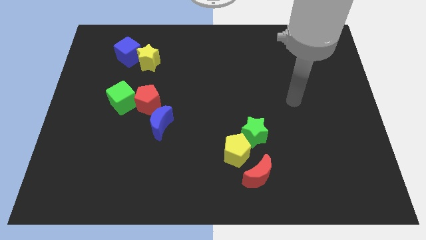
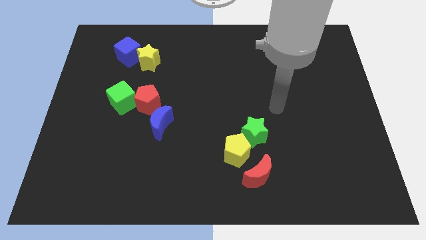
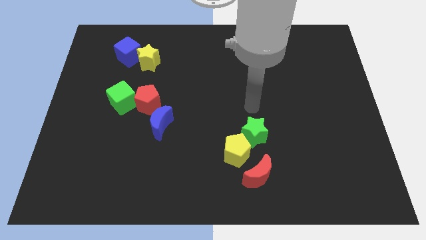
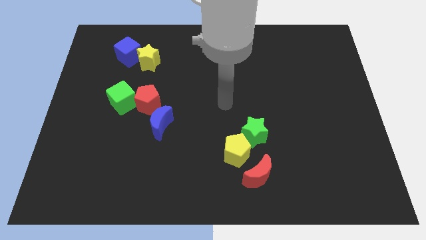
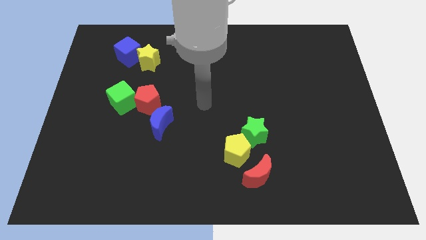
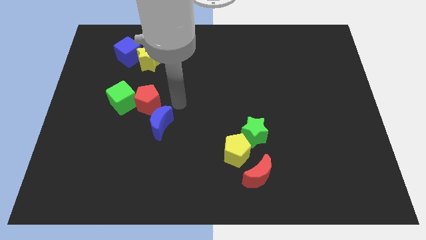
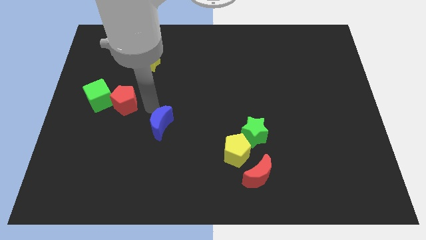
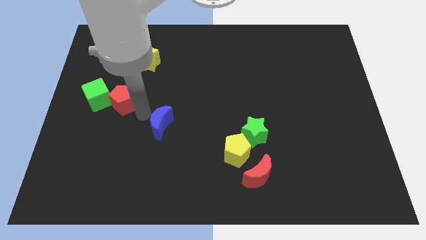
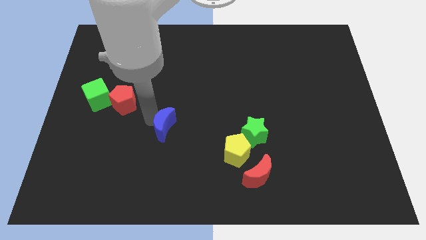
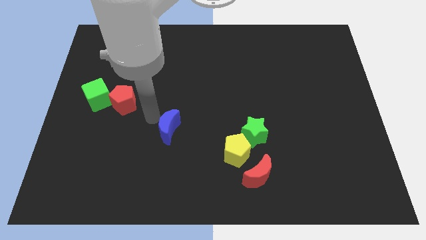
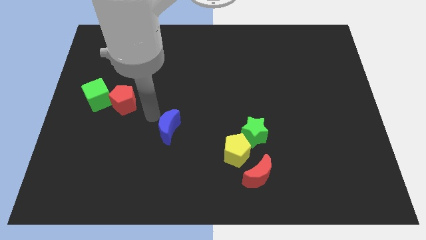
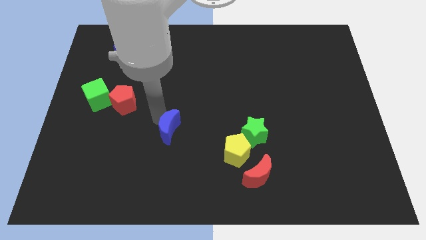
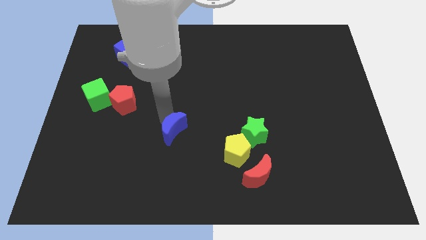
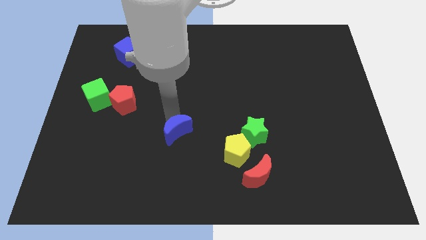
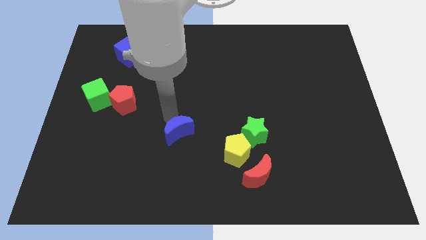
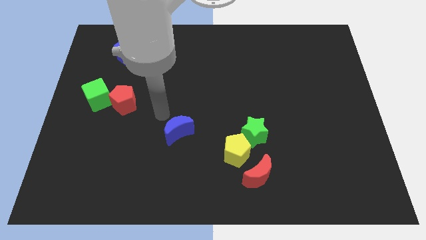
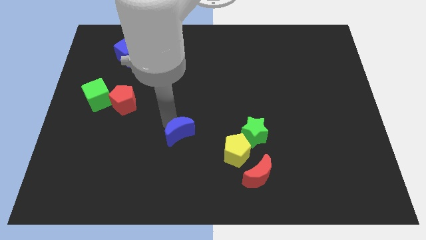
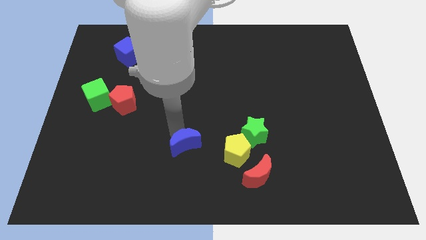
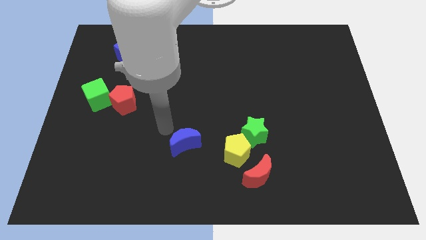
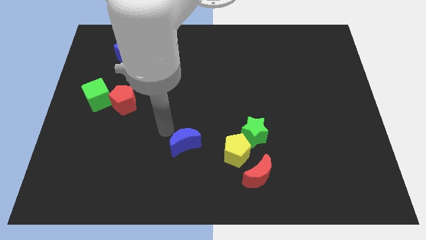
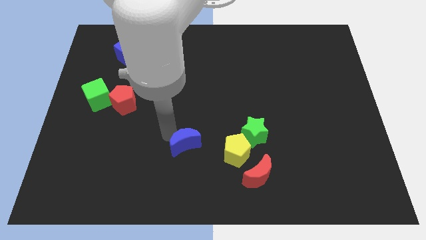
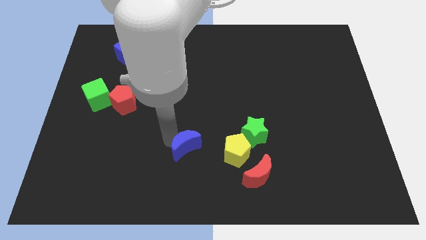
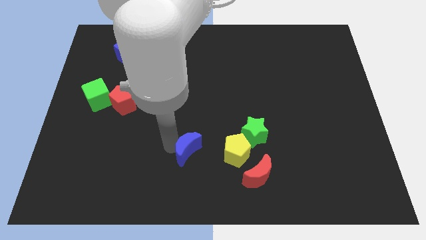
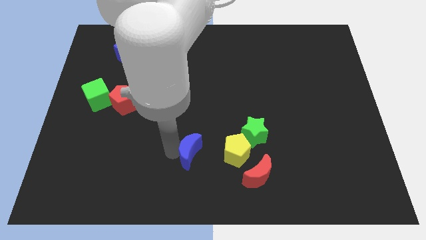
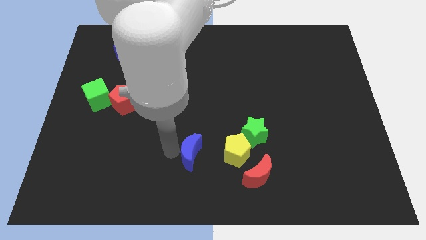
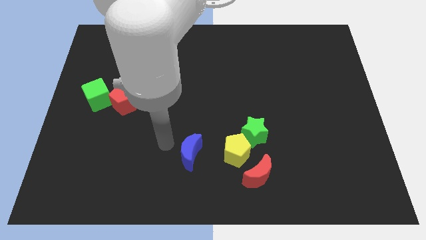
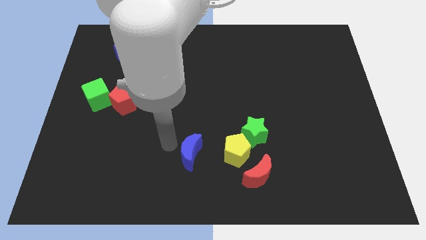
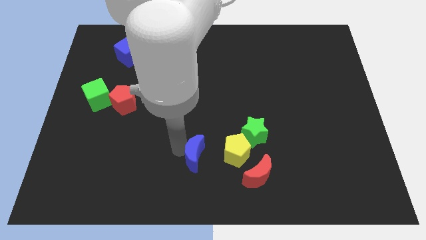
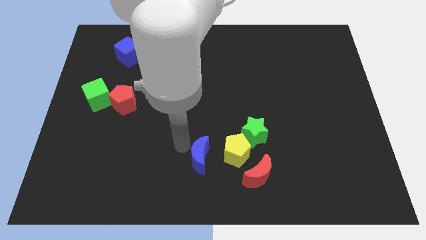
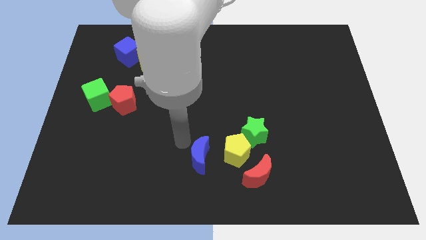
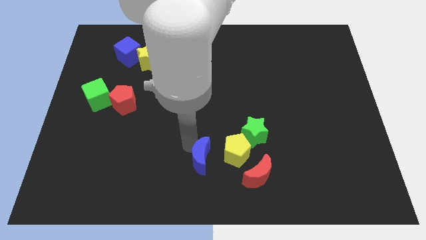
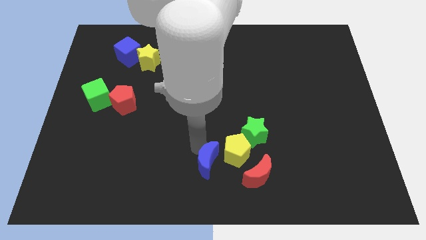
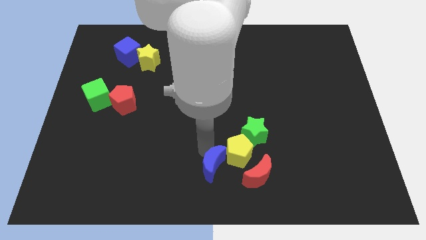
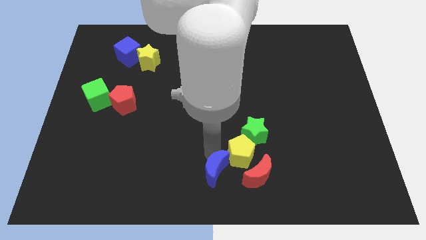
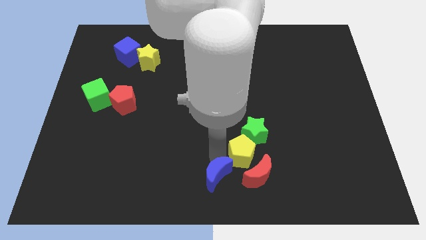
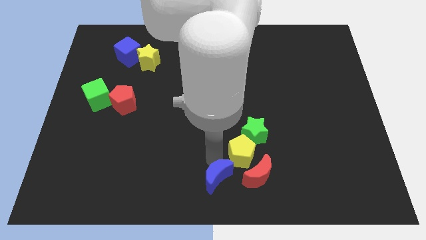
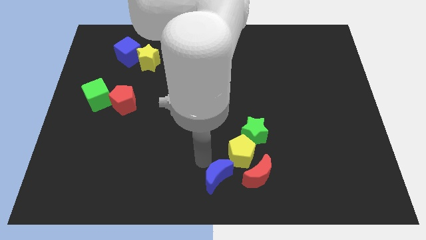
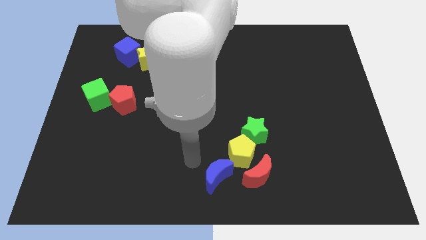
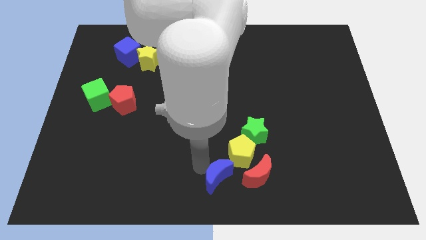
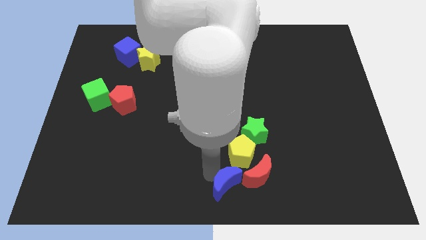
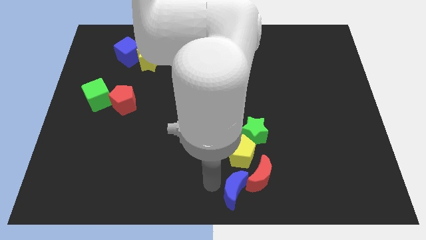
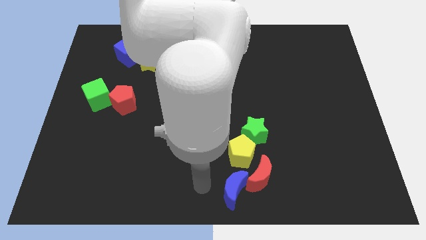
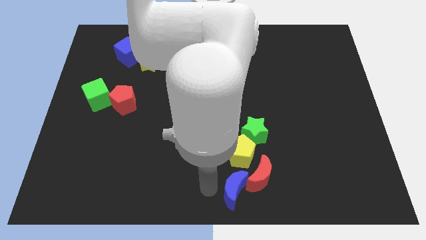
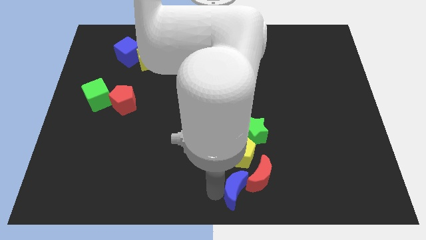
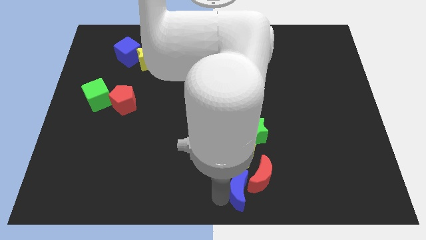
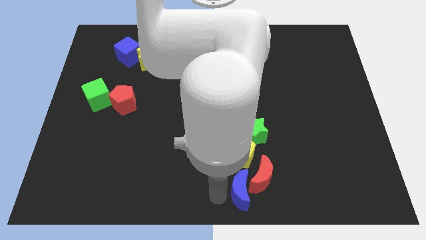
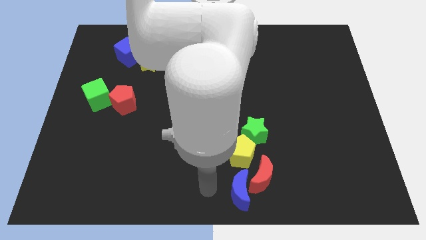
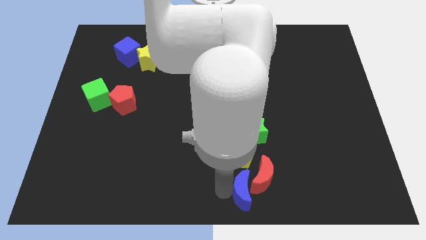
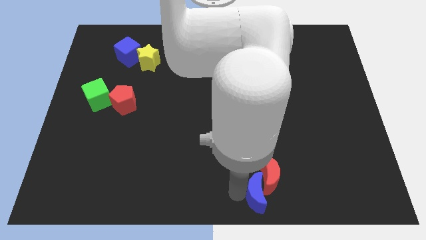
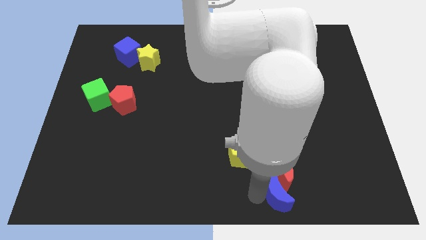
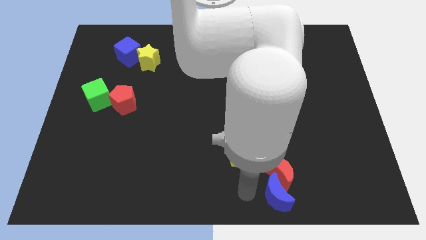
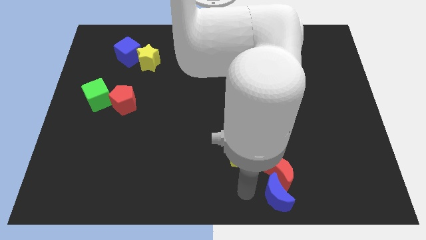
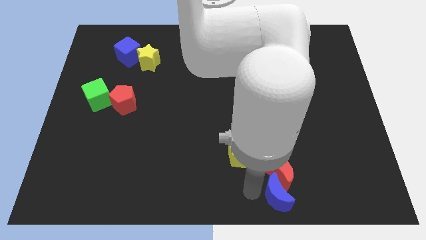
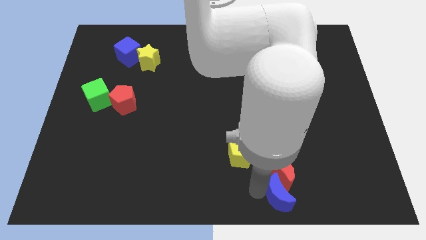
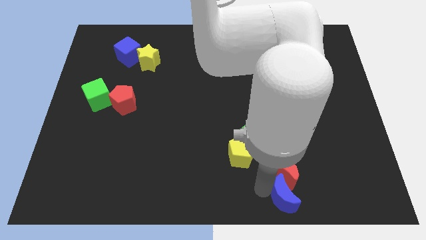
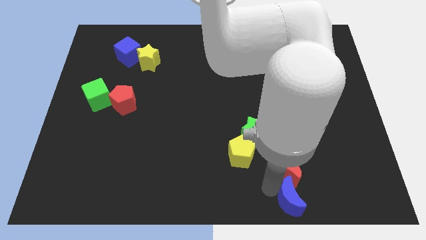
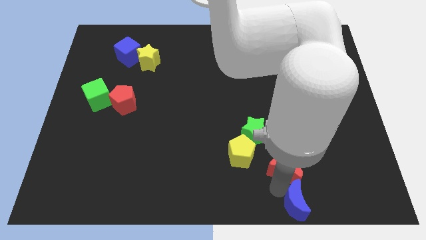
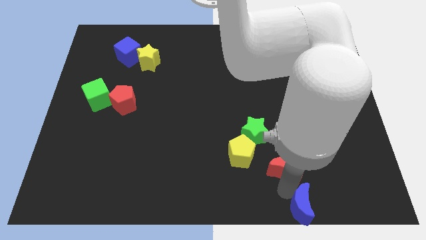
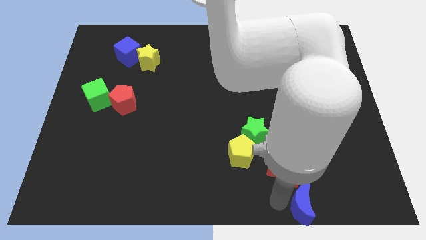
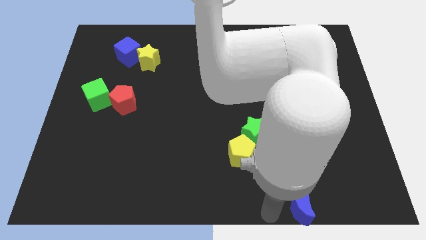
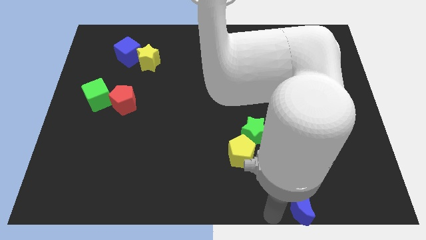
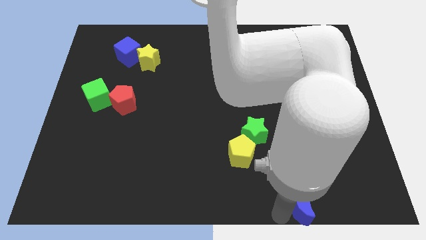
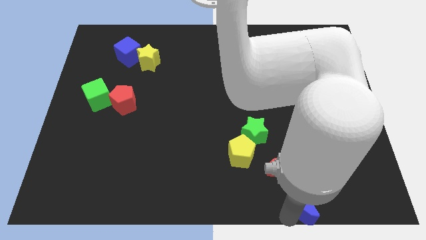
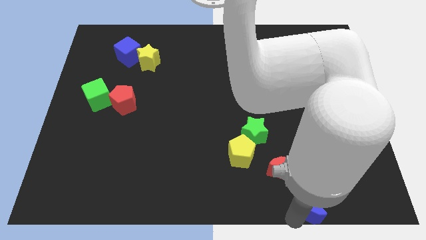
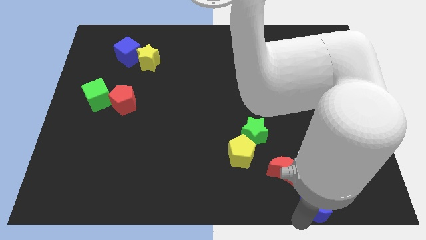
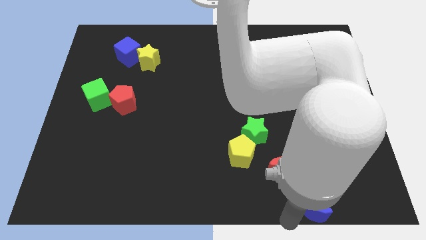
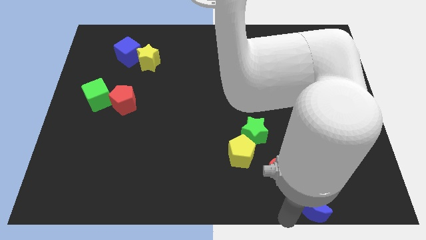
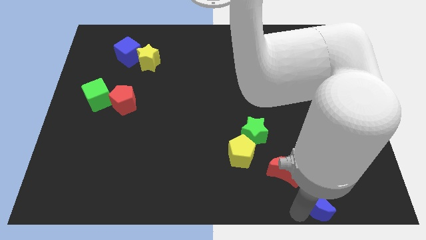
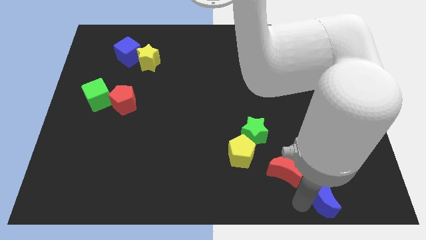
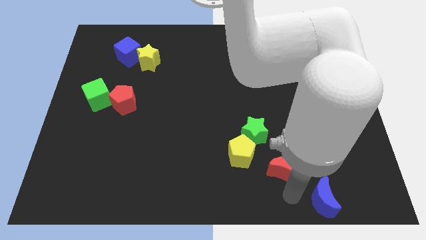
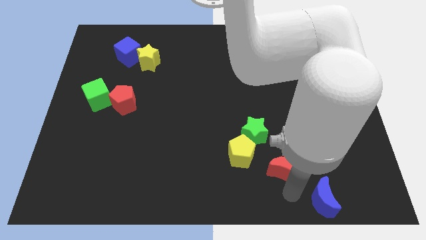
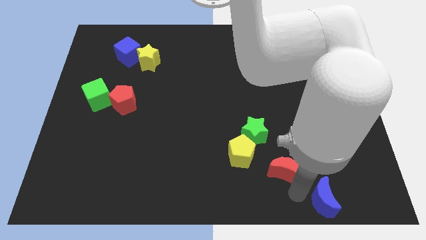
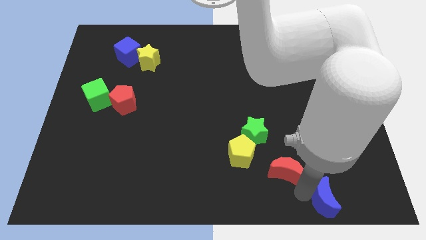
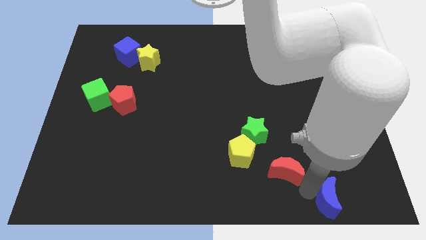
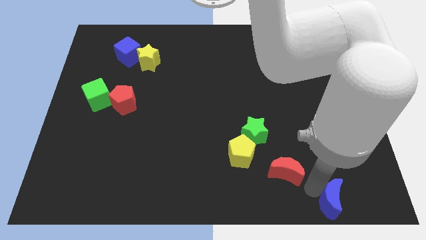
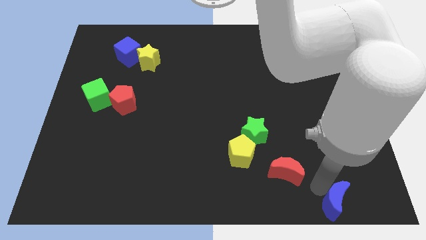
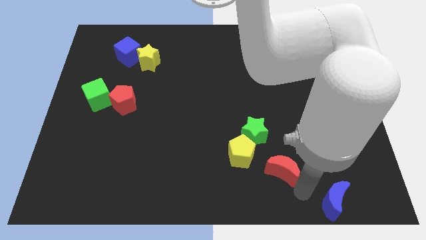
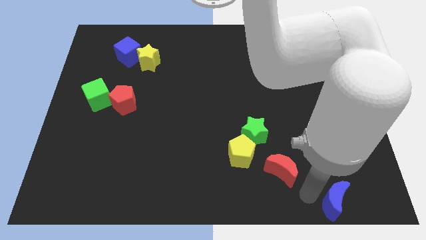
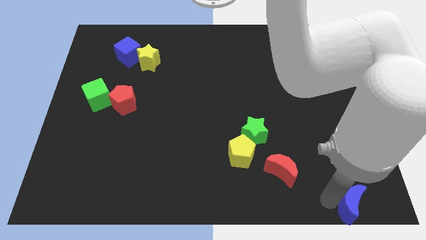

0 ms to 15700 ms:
slide the blue moon to the lower right corner

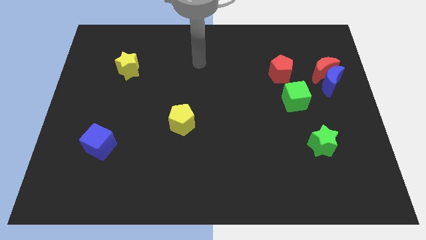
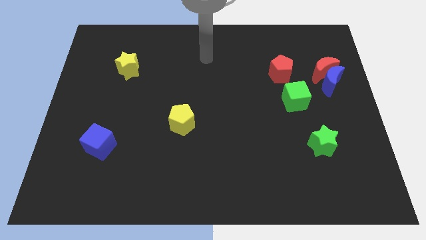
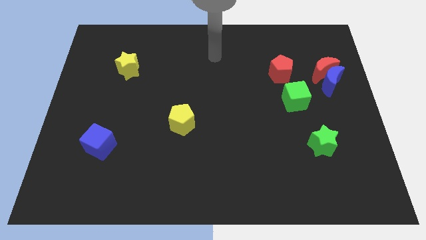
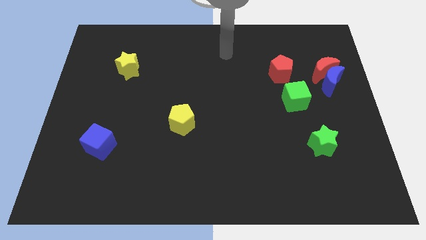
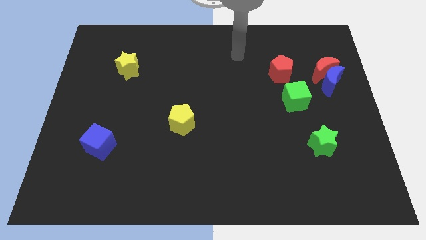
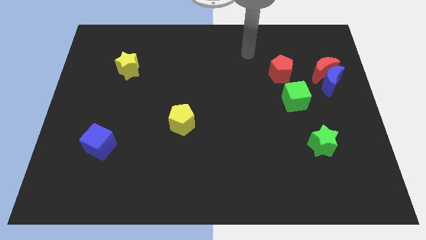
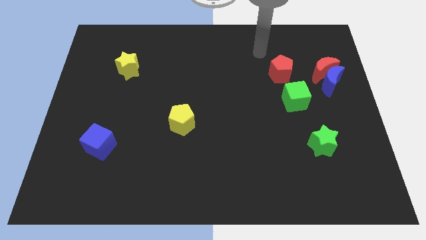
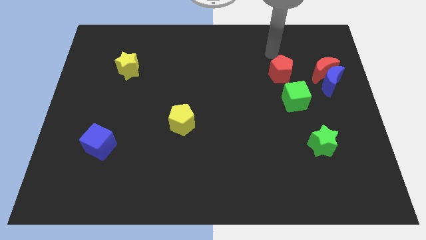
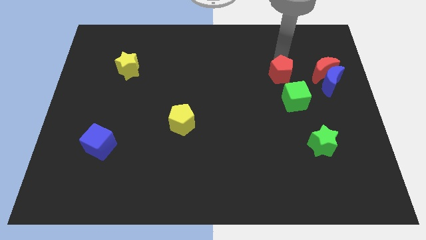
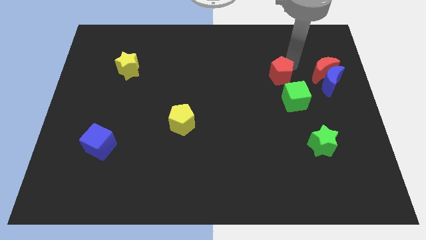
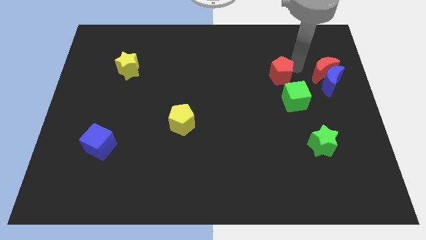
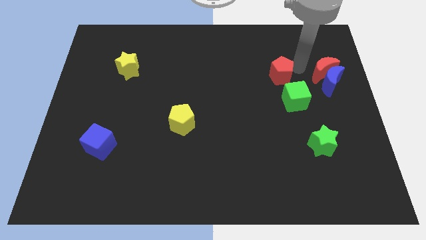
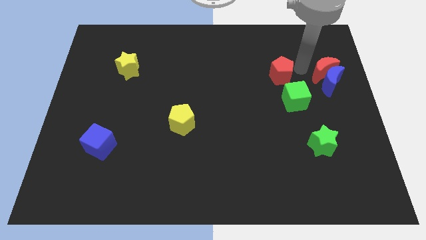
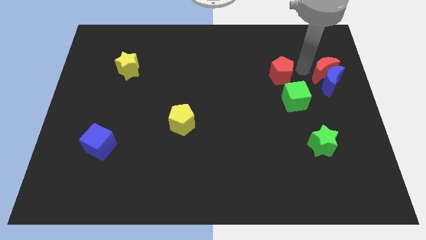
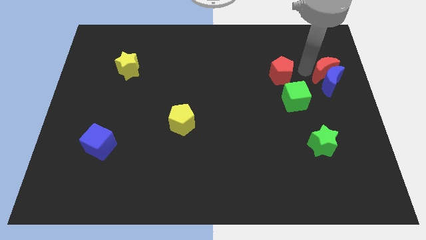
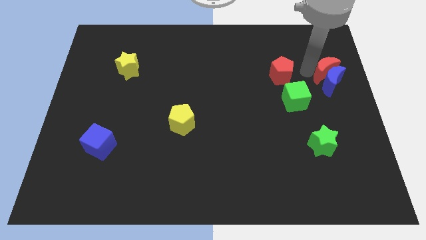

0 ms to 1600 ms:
slide the red moon to the center right
